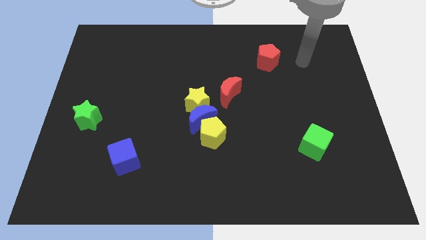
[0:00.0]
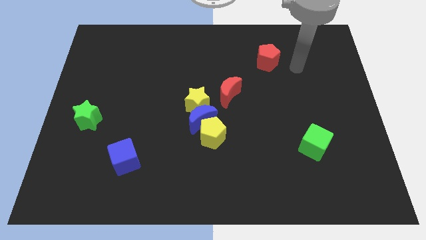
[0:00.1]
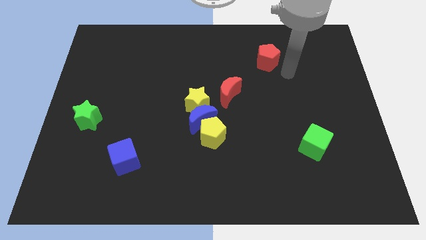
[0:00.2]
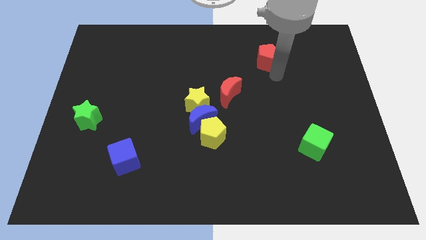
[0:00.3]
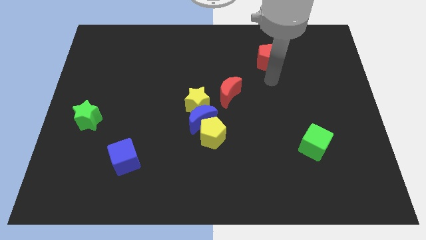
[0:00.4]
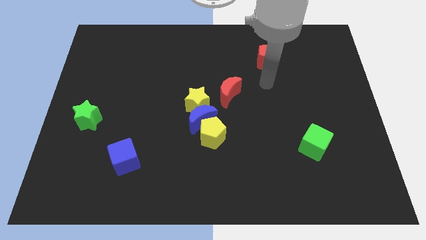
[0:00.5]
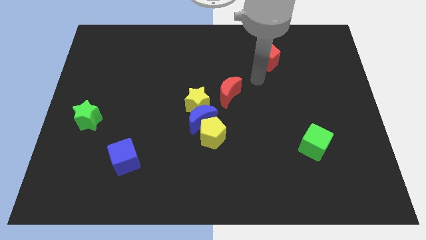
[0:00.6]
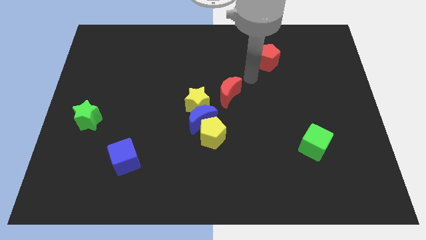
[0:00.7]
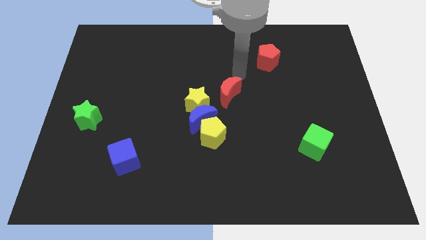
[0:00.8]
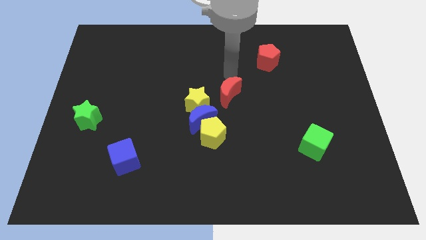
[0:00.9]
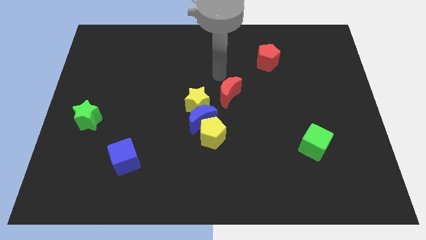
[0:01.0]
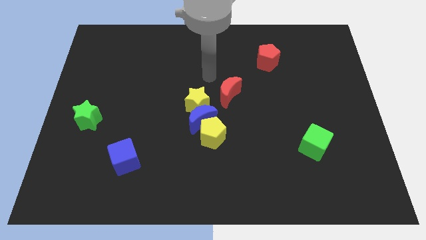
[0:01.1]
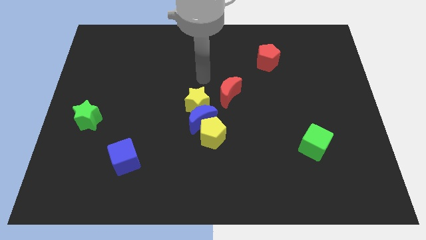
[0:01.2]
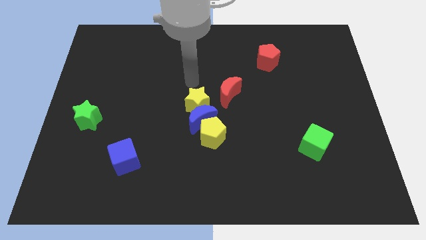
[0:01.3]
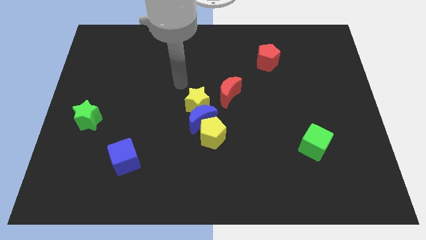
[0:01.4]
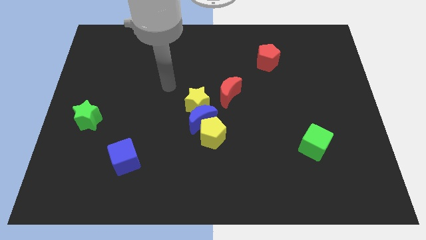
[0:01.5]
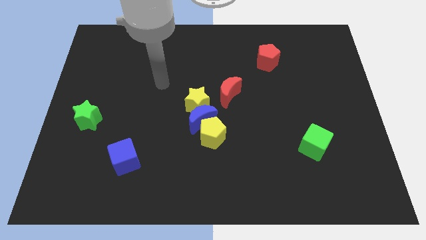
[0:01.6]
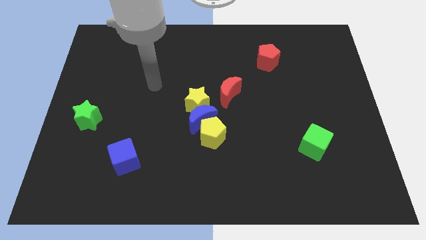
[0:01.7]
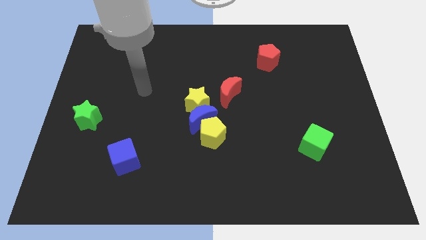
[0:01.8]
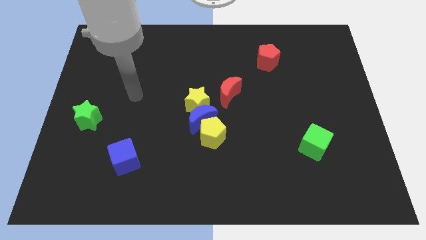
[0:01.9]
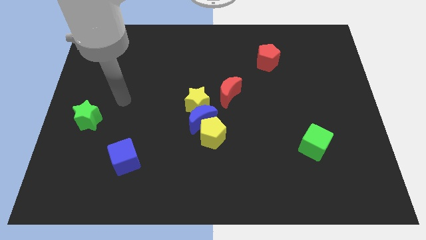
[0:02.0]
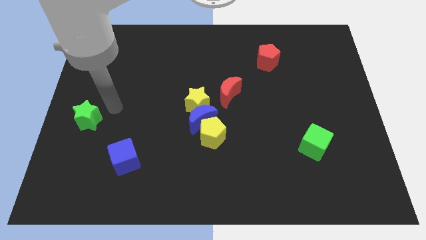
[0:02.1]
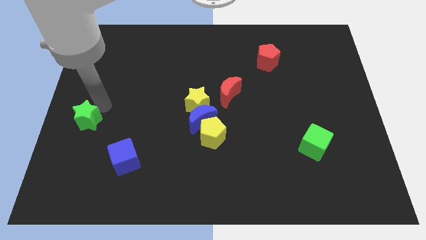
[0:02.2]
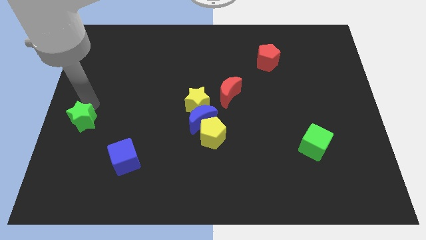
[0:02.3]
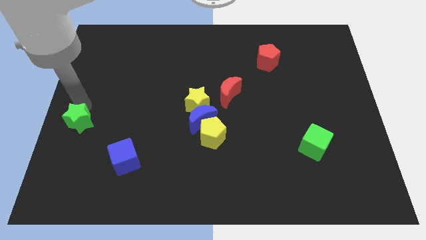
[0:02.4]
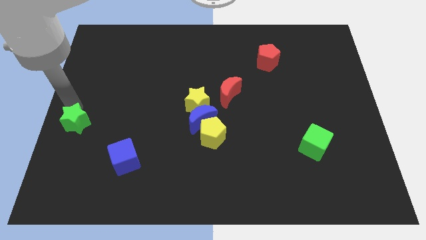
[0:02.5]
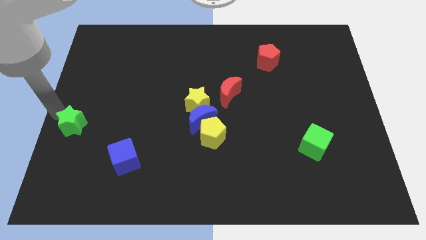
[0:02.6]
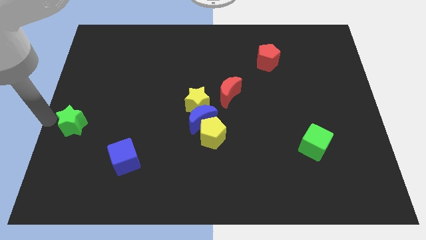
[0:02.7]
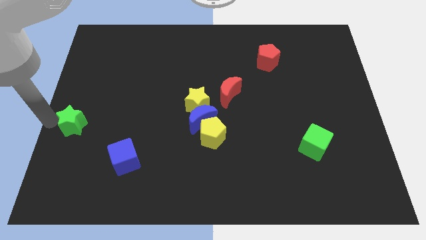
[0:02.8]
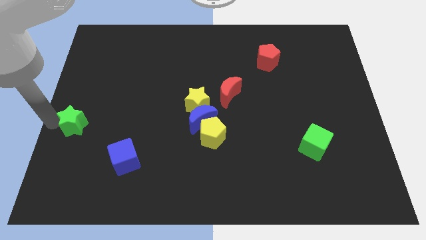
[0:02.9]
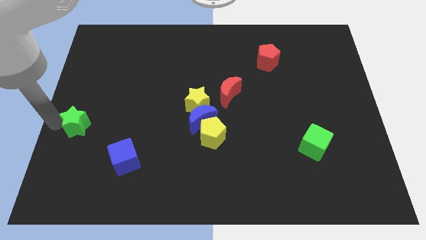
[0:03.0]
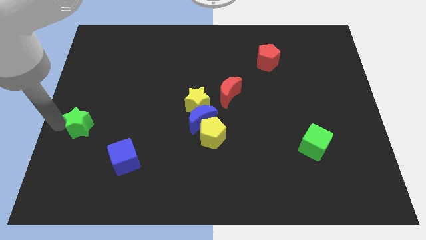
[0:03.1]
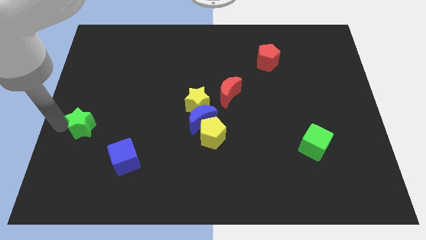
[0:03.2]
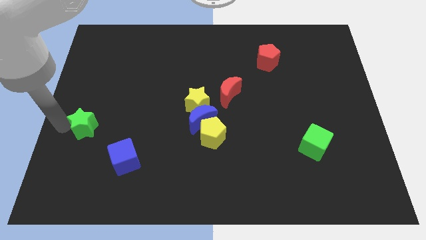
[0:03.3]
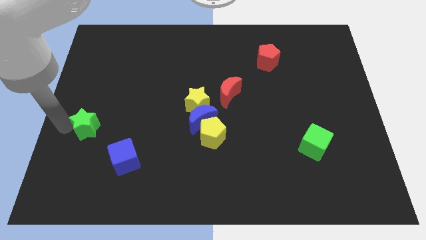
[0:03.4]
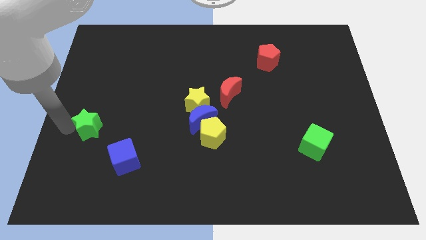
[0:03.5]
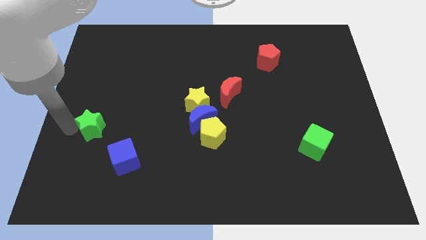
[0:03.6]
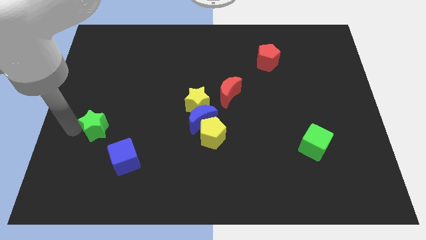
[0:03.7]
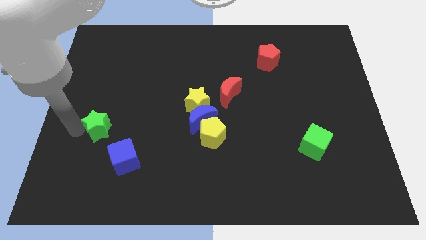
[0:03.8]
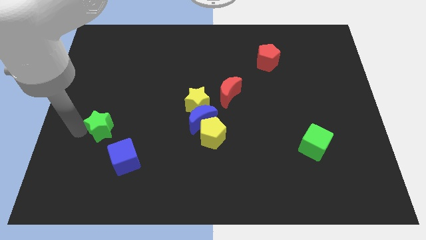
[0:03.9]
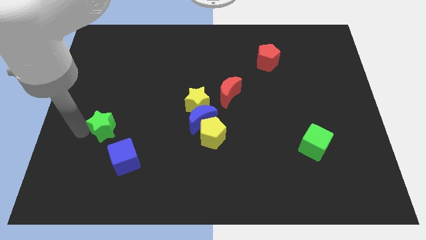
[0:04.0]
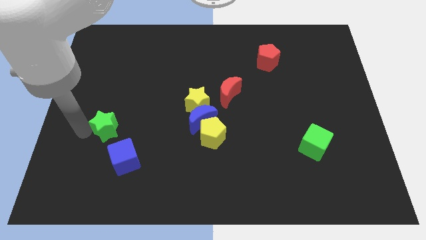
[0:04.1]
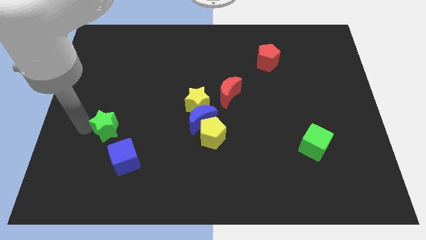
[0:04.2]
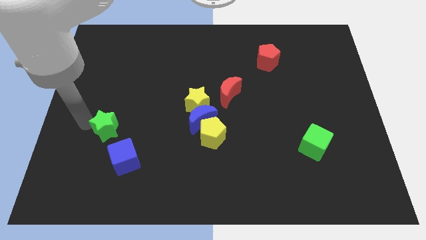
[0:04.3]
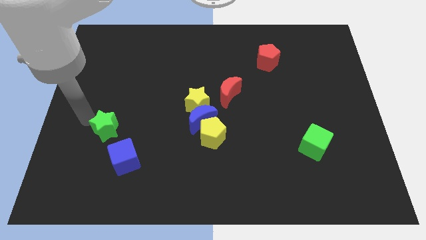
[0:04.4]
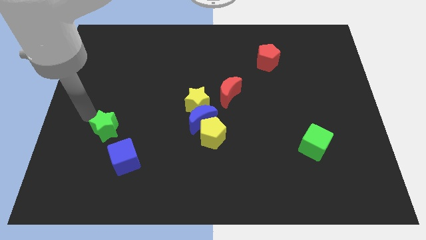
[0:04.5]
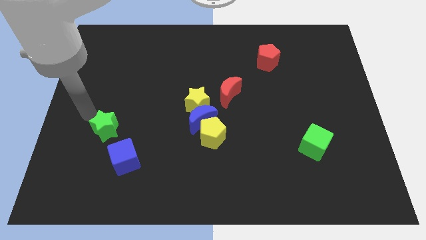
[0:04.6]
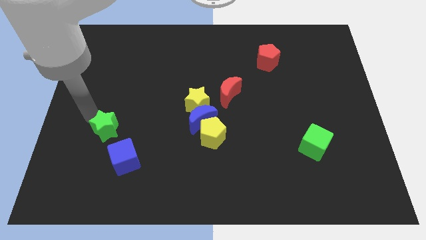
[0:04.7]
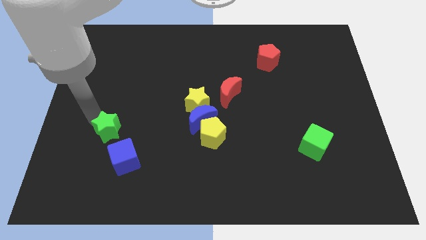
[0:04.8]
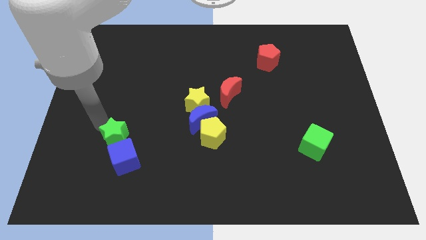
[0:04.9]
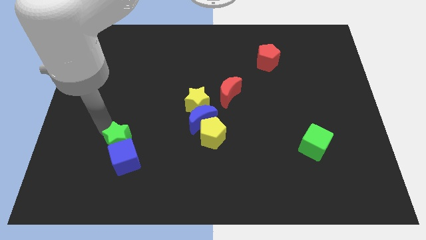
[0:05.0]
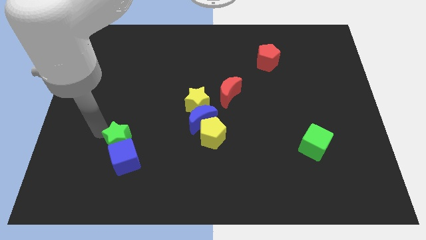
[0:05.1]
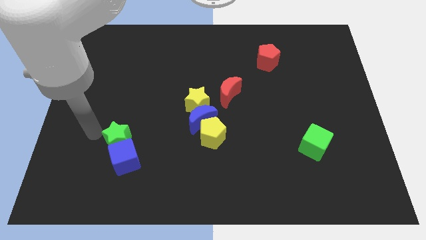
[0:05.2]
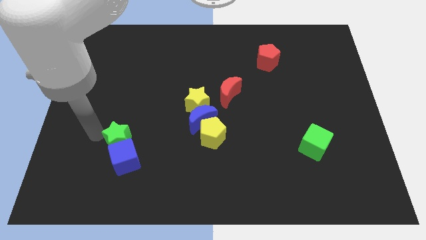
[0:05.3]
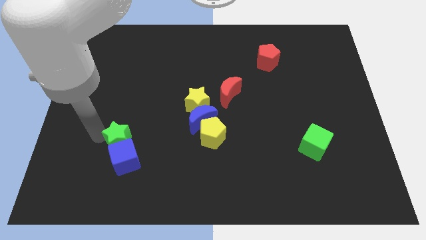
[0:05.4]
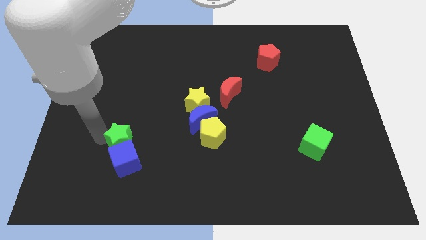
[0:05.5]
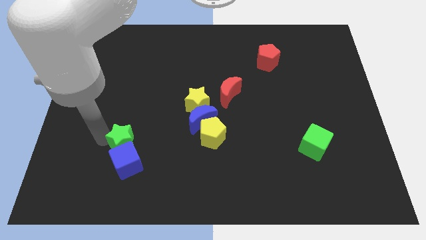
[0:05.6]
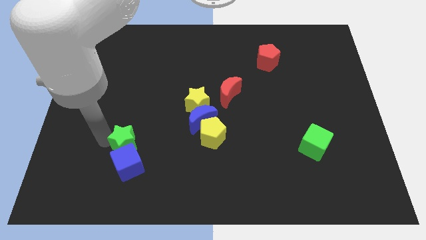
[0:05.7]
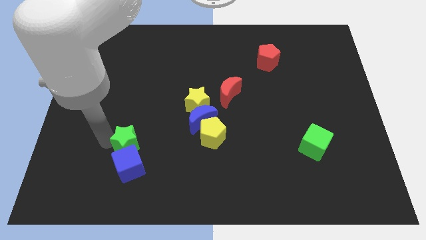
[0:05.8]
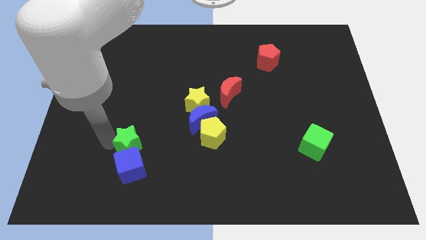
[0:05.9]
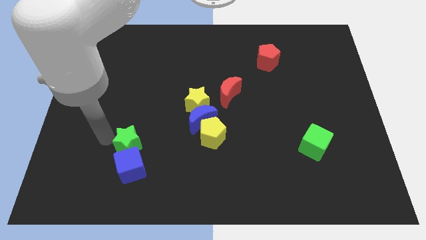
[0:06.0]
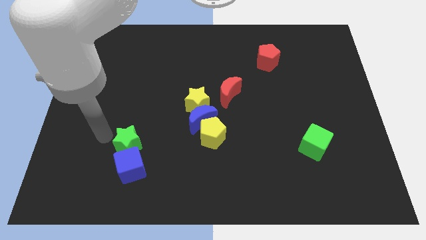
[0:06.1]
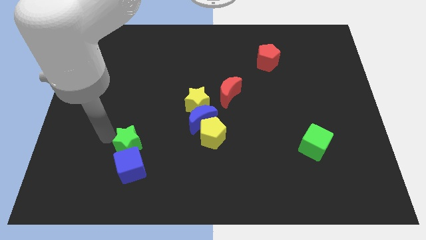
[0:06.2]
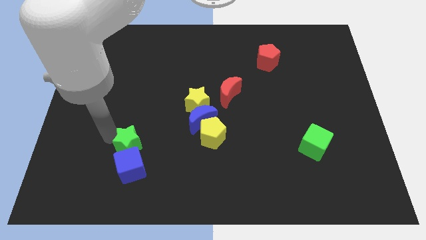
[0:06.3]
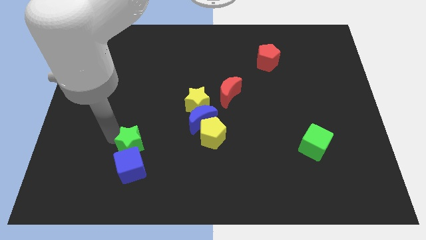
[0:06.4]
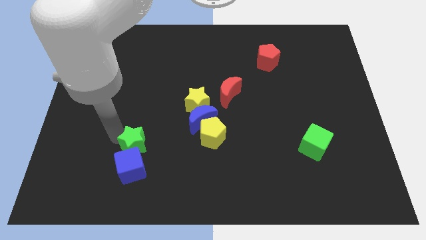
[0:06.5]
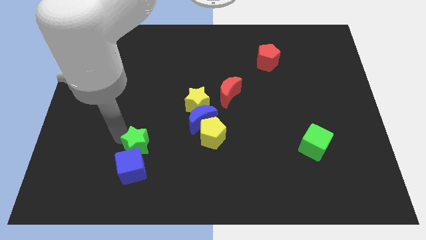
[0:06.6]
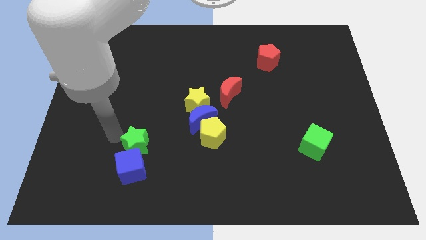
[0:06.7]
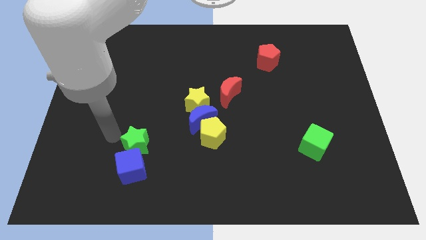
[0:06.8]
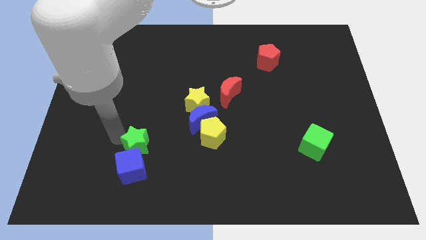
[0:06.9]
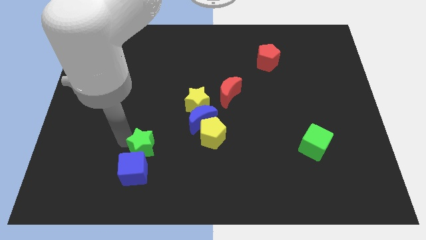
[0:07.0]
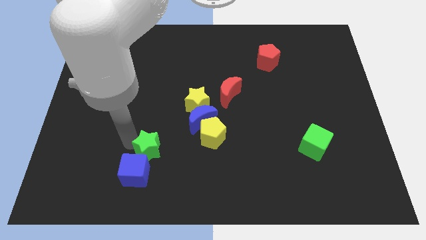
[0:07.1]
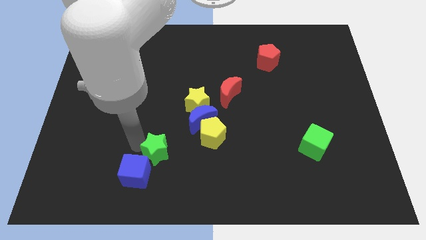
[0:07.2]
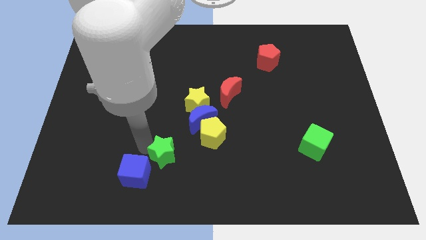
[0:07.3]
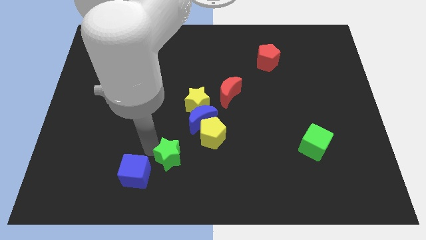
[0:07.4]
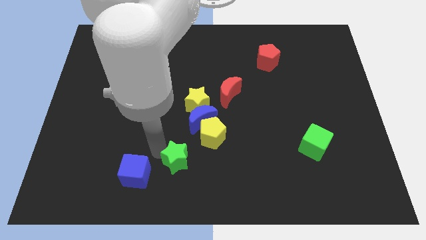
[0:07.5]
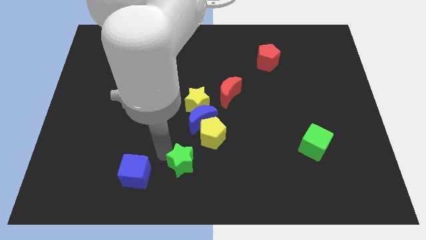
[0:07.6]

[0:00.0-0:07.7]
slide the green star to the bottom side
